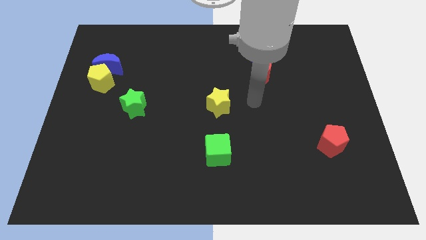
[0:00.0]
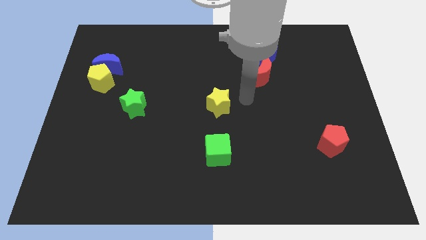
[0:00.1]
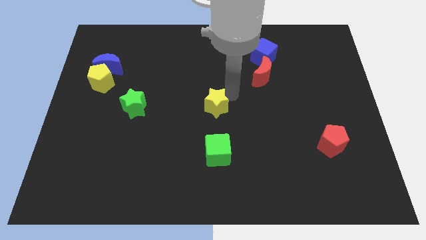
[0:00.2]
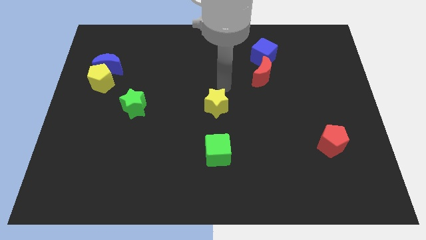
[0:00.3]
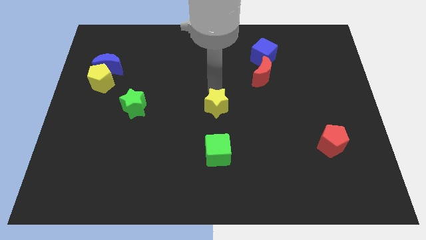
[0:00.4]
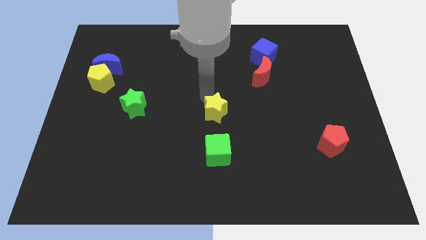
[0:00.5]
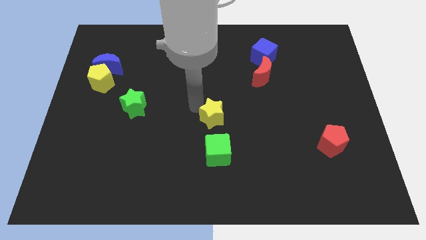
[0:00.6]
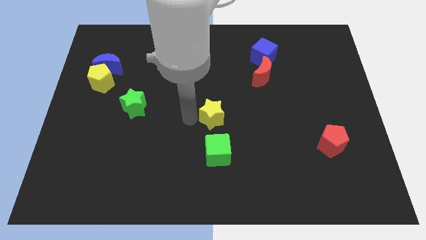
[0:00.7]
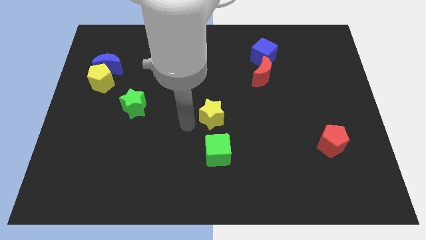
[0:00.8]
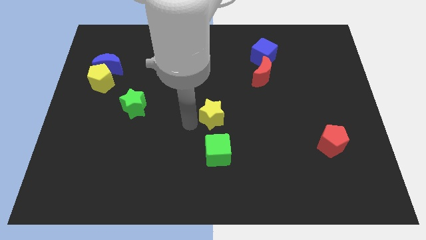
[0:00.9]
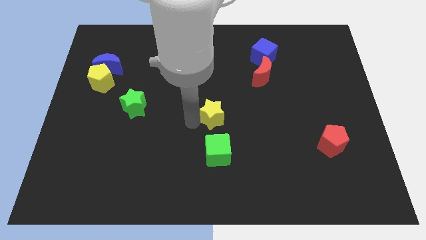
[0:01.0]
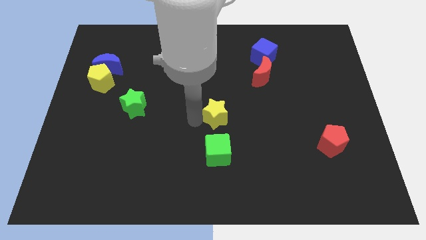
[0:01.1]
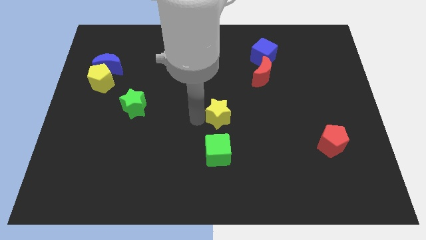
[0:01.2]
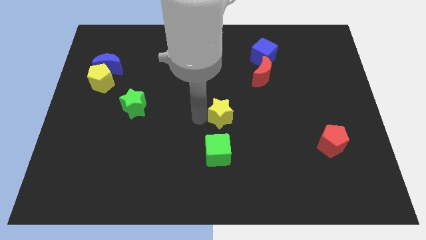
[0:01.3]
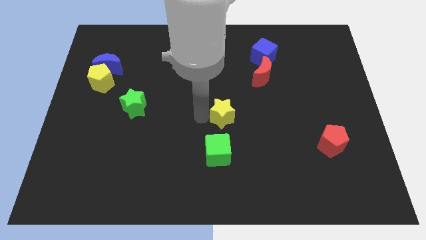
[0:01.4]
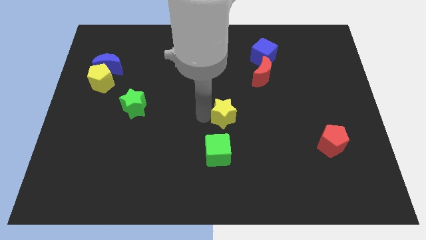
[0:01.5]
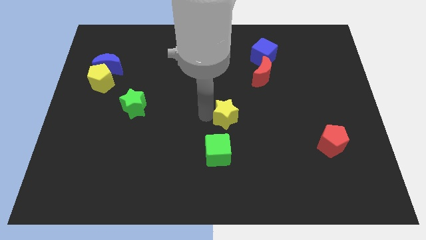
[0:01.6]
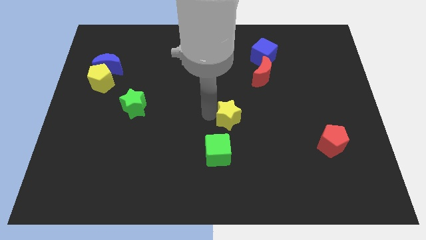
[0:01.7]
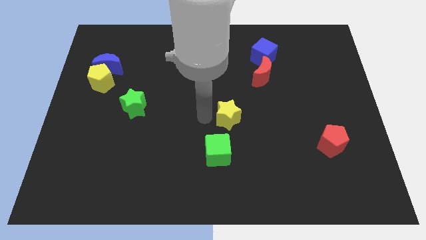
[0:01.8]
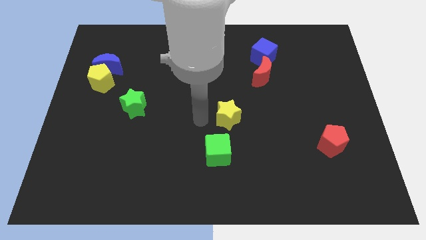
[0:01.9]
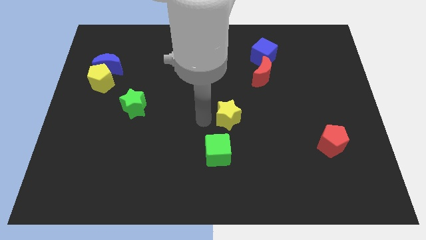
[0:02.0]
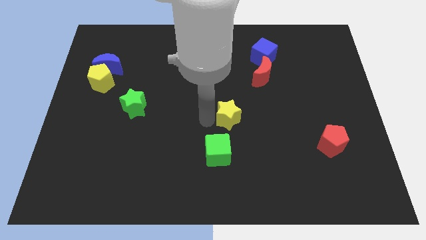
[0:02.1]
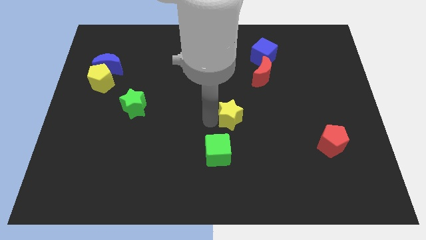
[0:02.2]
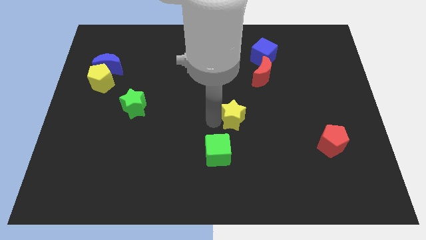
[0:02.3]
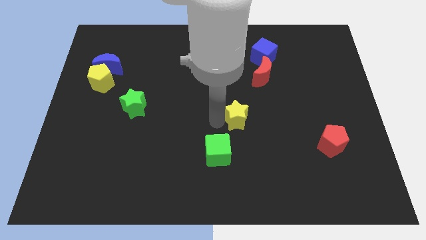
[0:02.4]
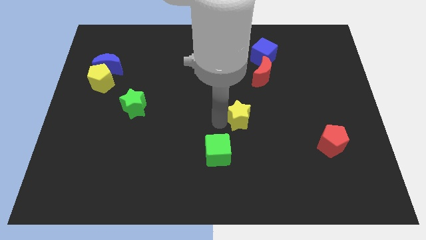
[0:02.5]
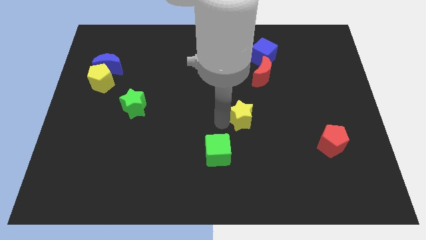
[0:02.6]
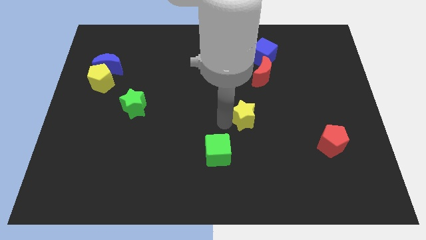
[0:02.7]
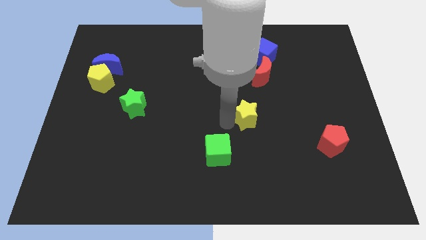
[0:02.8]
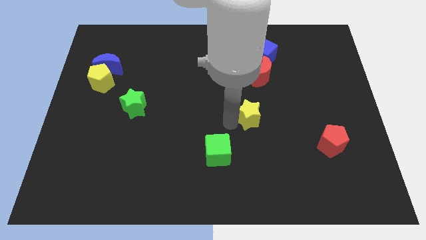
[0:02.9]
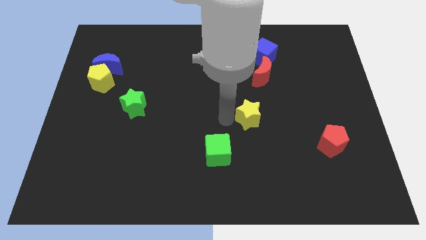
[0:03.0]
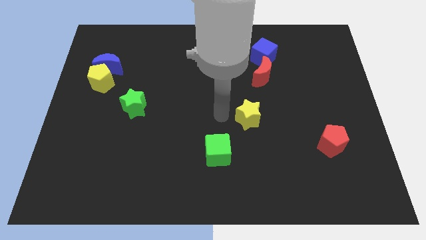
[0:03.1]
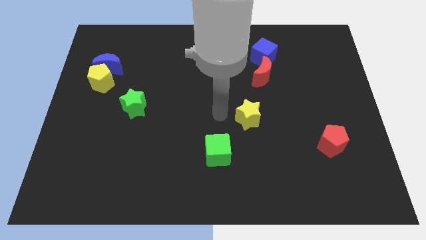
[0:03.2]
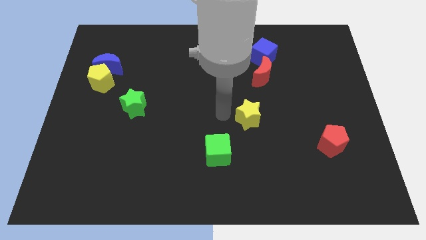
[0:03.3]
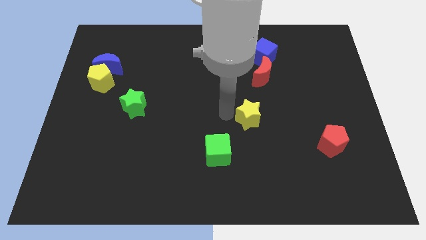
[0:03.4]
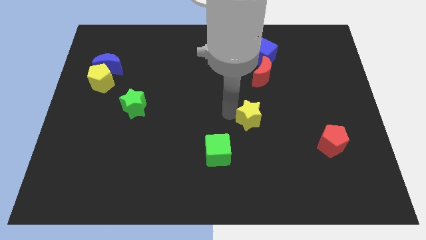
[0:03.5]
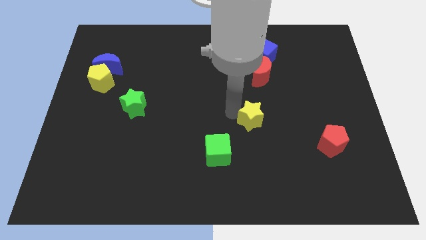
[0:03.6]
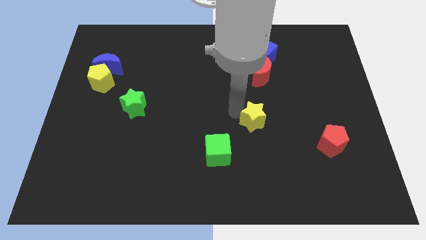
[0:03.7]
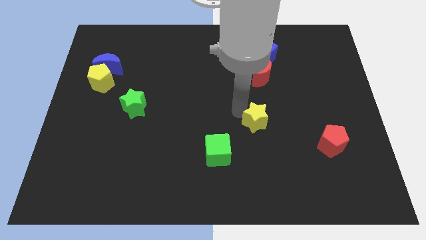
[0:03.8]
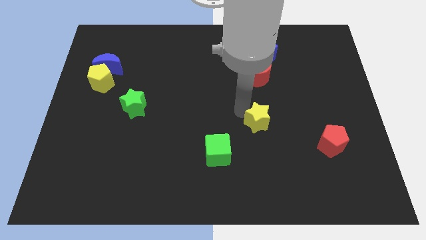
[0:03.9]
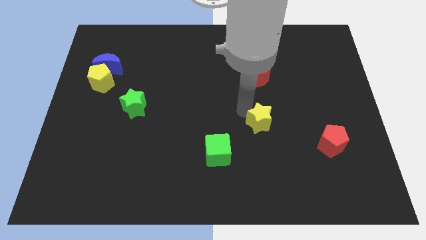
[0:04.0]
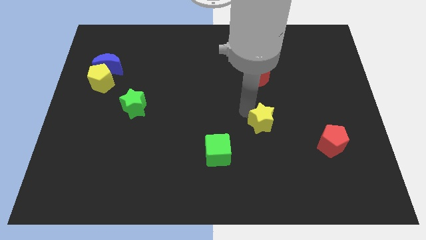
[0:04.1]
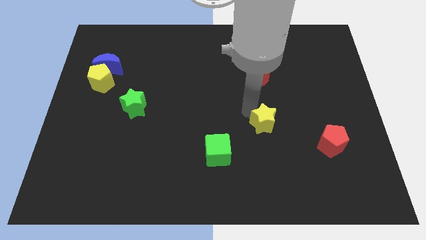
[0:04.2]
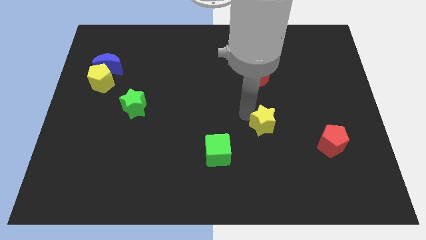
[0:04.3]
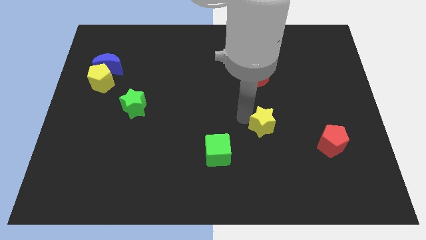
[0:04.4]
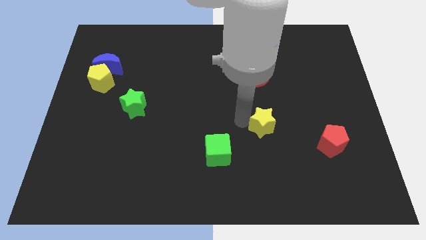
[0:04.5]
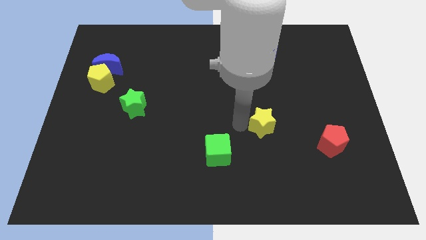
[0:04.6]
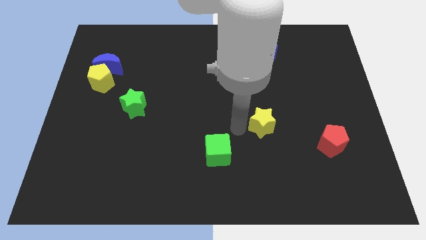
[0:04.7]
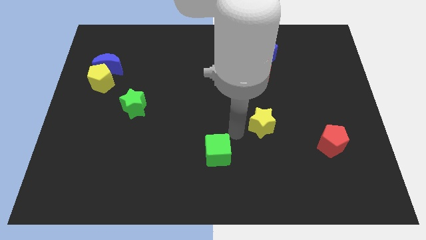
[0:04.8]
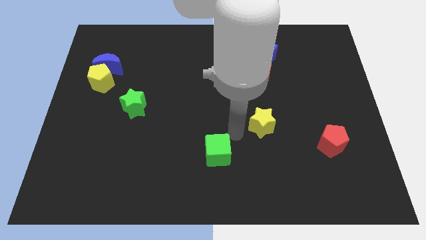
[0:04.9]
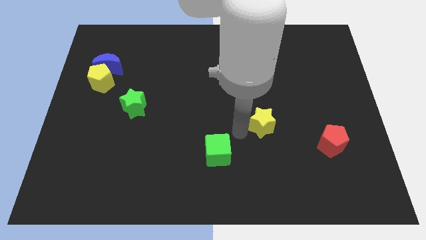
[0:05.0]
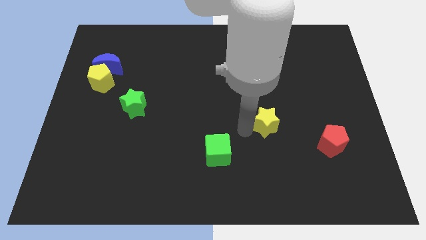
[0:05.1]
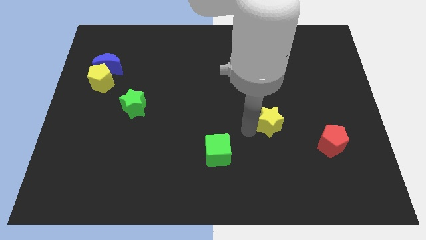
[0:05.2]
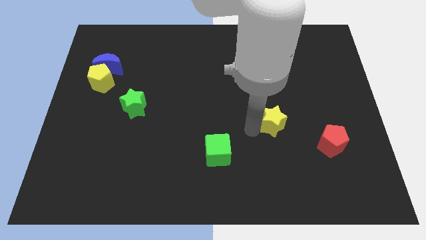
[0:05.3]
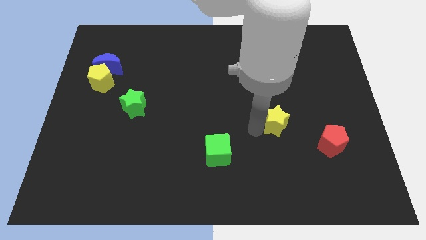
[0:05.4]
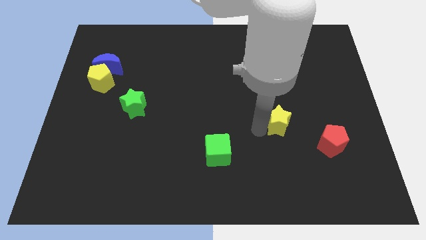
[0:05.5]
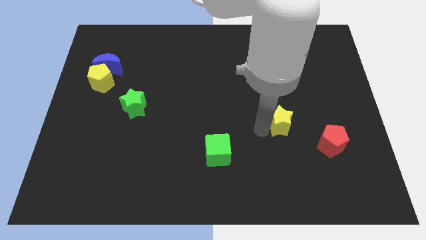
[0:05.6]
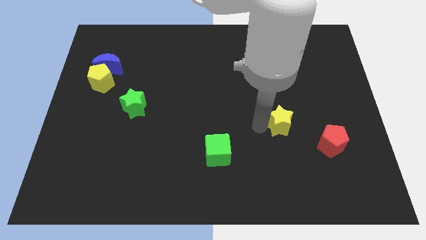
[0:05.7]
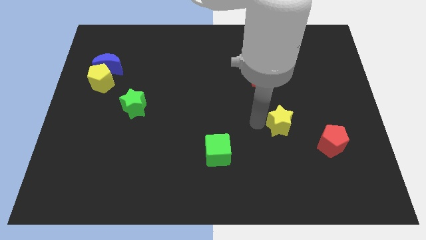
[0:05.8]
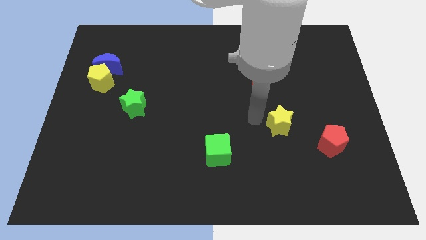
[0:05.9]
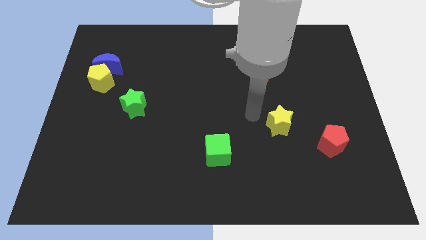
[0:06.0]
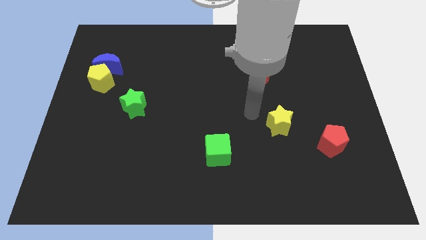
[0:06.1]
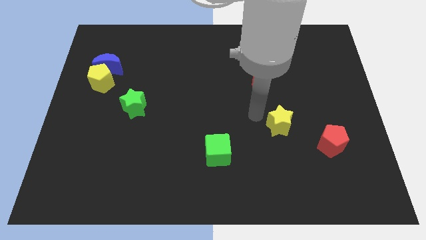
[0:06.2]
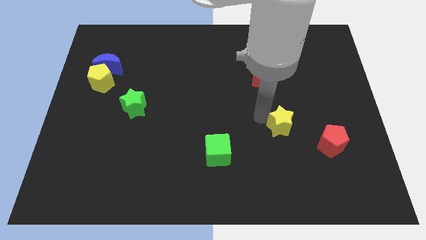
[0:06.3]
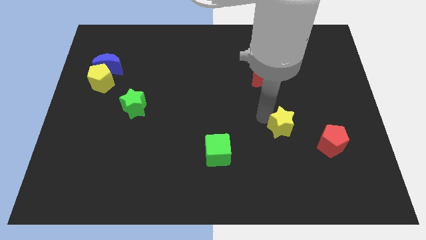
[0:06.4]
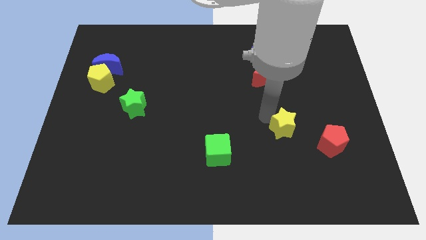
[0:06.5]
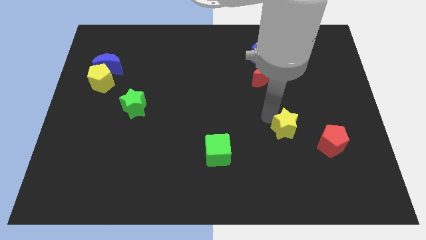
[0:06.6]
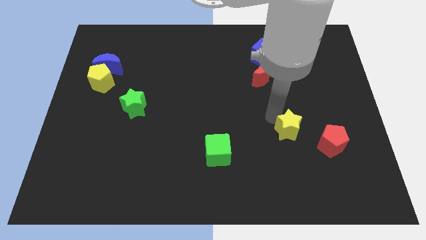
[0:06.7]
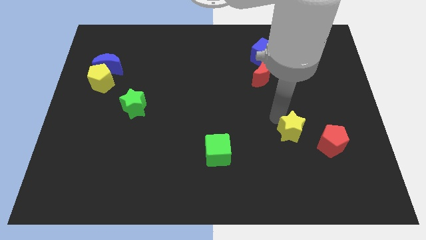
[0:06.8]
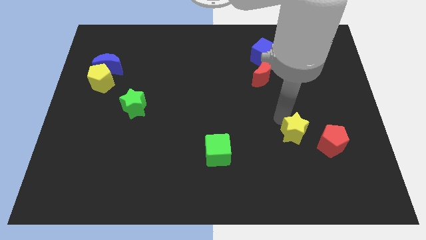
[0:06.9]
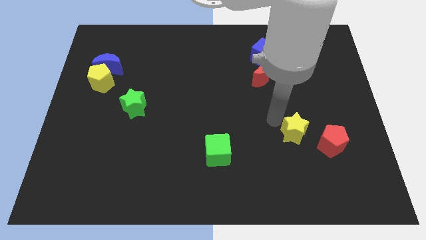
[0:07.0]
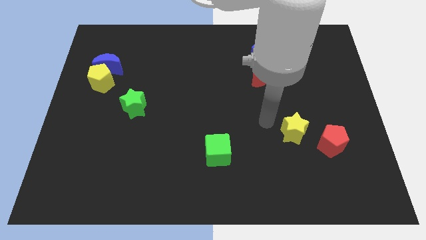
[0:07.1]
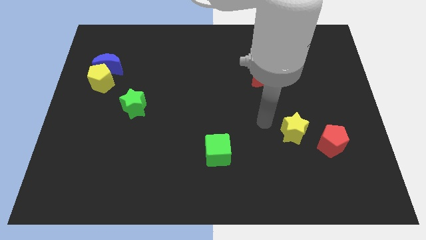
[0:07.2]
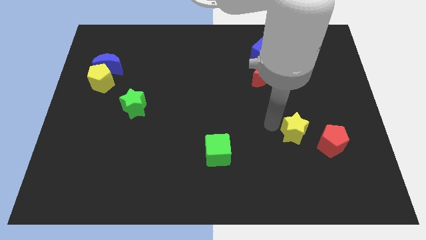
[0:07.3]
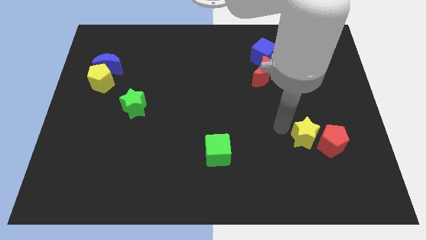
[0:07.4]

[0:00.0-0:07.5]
slide the yellow star to the red pentagon

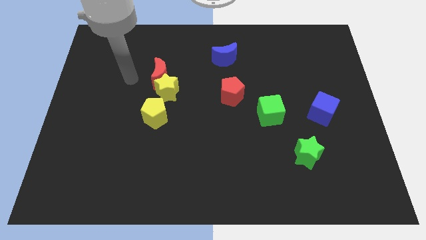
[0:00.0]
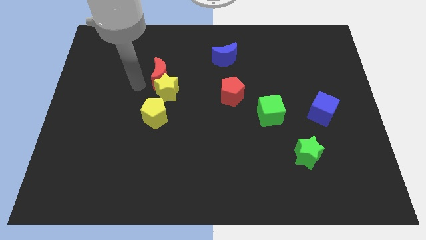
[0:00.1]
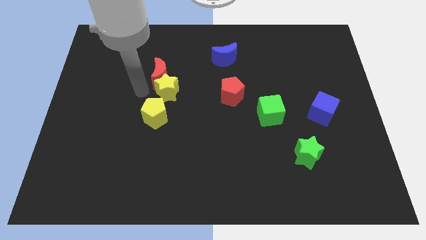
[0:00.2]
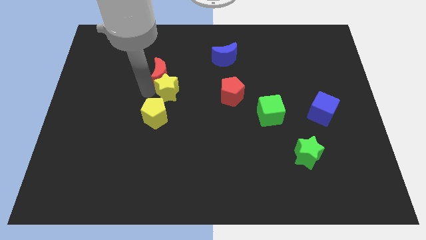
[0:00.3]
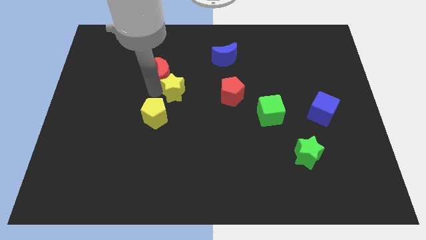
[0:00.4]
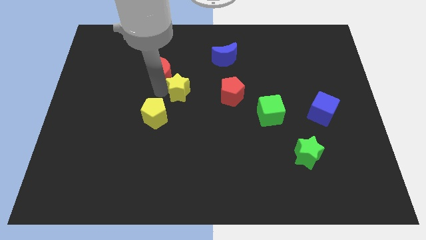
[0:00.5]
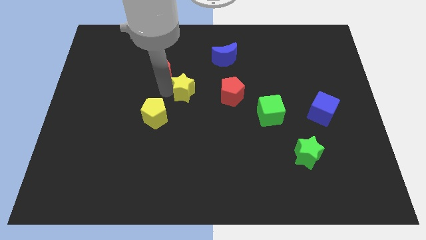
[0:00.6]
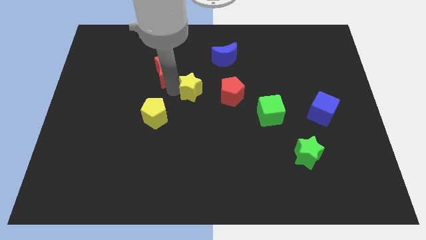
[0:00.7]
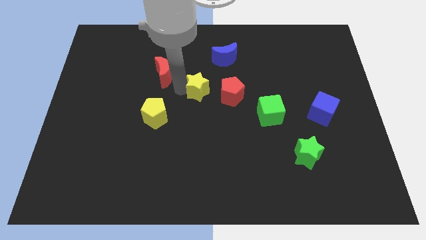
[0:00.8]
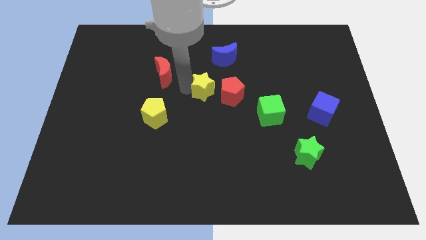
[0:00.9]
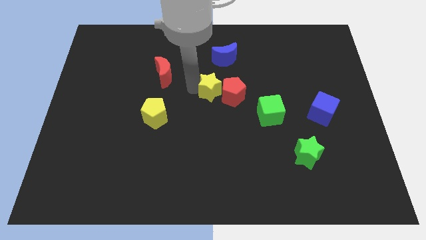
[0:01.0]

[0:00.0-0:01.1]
move the yellow star close to the red pentagon
